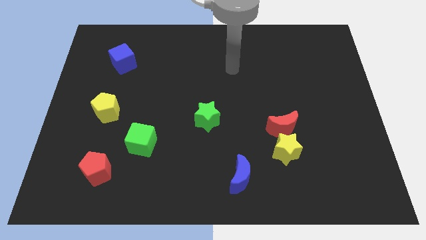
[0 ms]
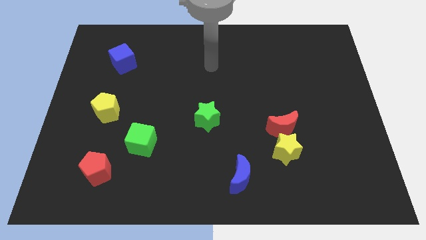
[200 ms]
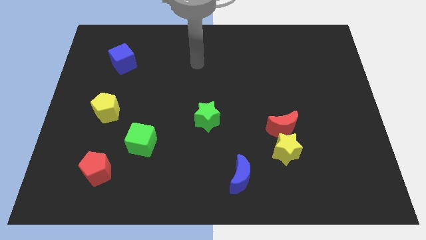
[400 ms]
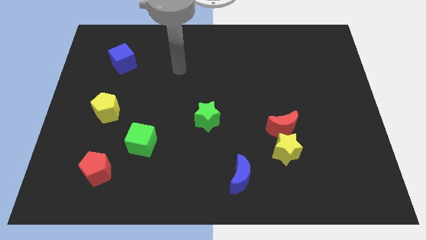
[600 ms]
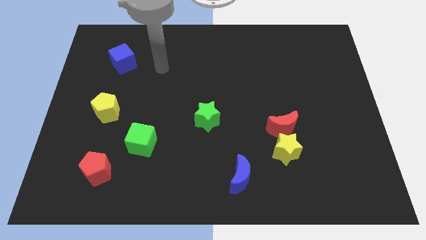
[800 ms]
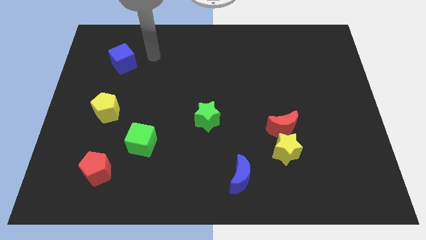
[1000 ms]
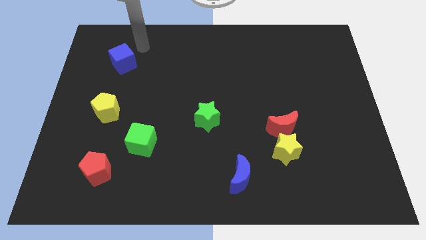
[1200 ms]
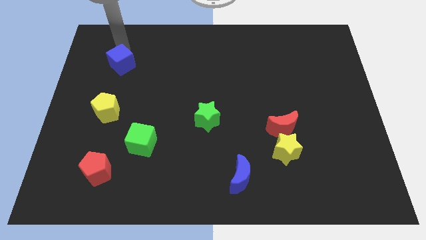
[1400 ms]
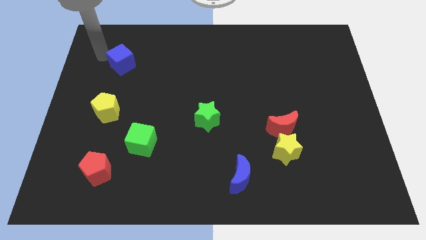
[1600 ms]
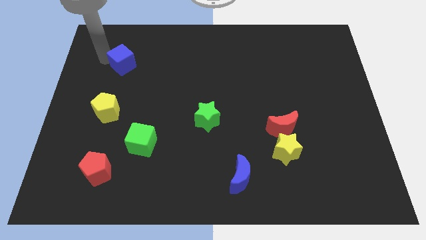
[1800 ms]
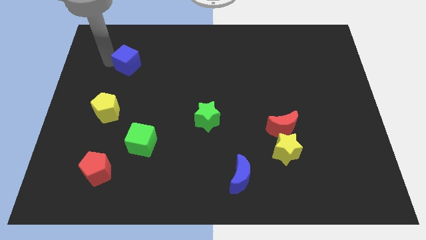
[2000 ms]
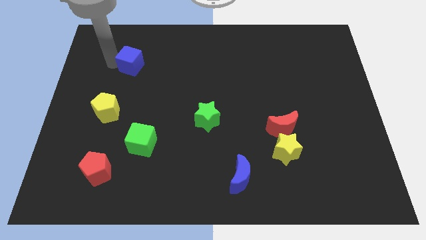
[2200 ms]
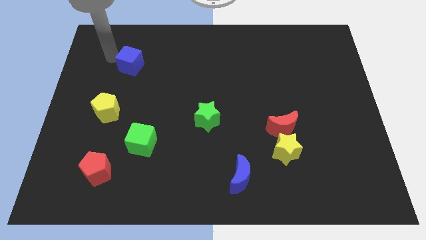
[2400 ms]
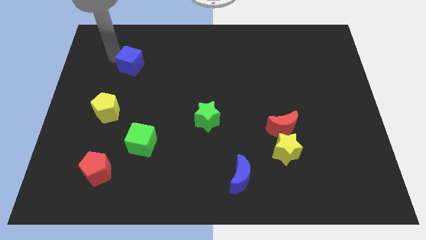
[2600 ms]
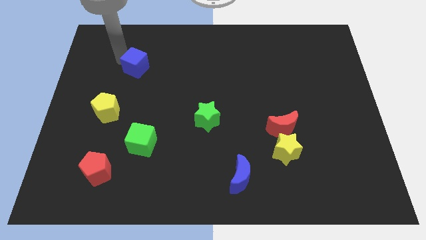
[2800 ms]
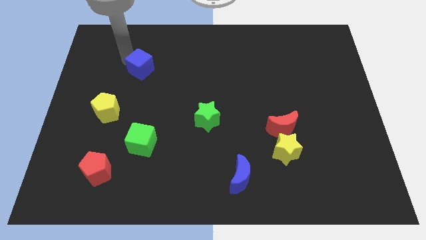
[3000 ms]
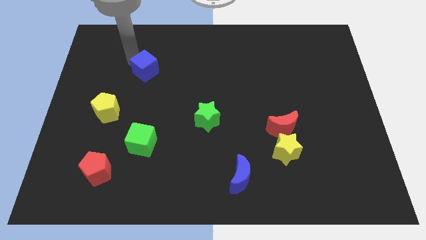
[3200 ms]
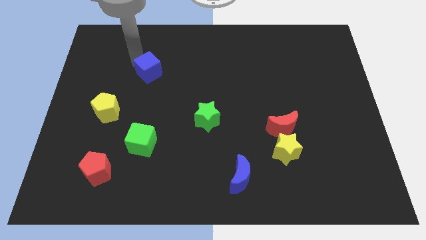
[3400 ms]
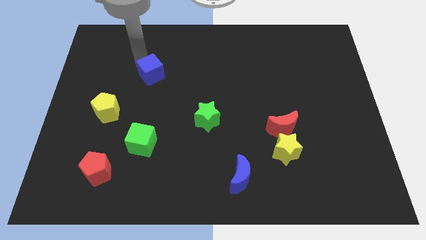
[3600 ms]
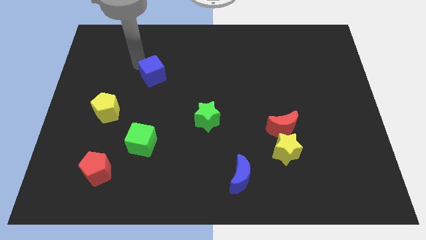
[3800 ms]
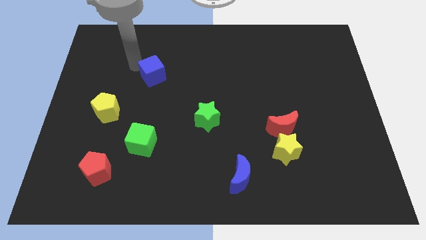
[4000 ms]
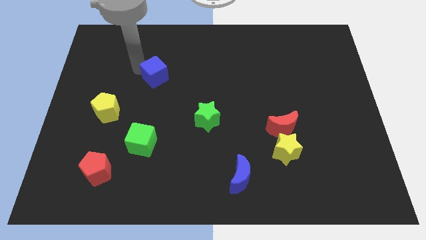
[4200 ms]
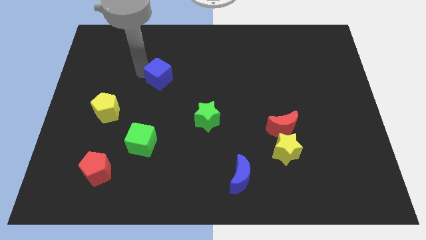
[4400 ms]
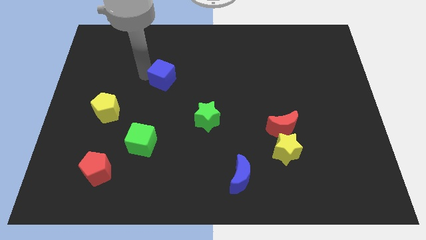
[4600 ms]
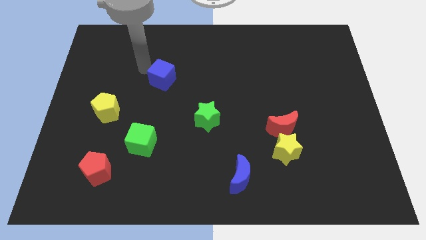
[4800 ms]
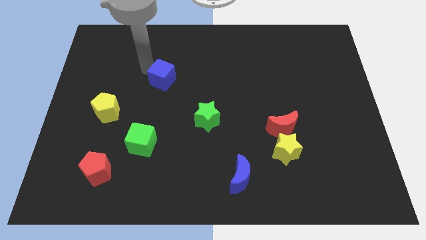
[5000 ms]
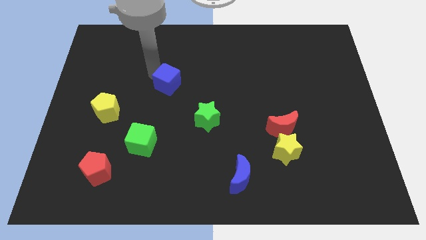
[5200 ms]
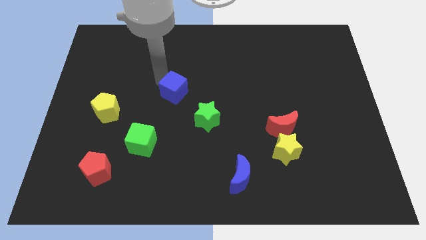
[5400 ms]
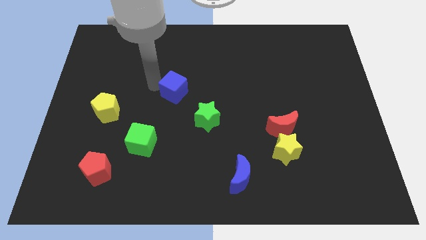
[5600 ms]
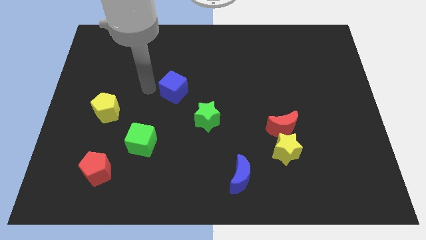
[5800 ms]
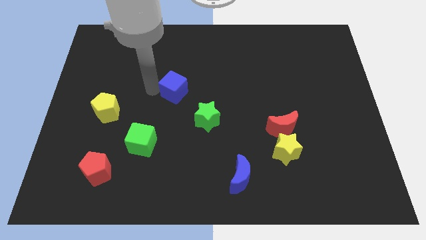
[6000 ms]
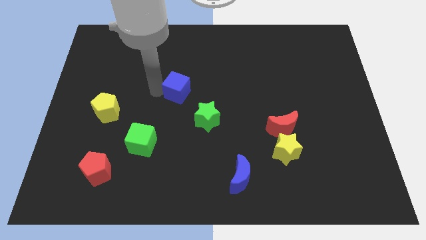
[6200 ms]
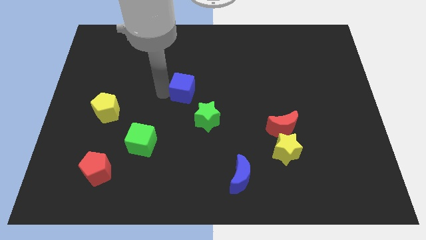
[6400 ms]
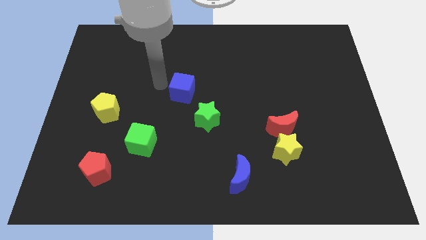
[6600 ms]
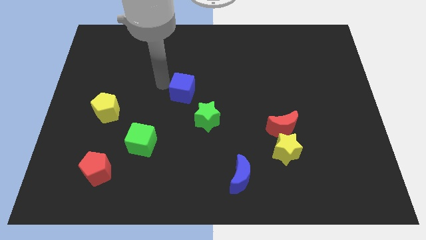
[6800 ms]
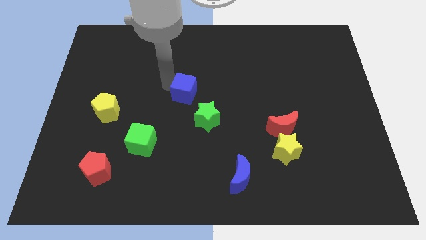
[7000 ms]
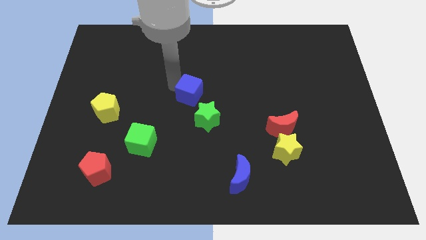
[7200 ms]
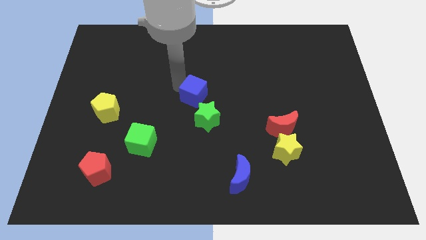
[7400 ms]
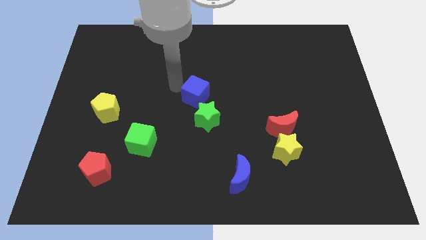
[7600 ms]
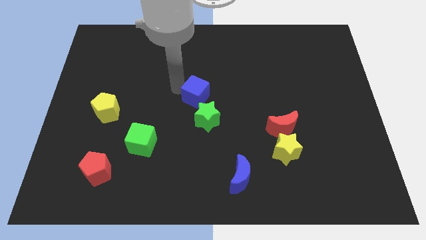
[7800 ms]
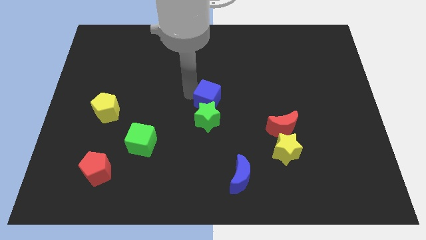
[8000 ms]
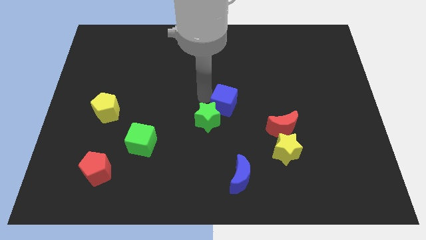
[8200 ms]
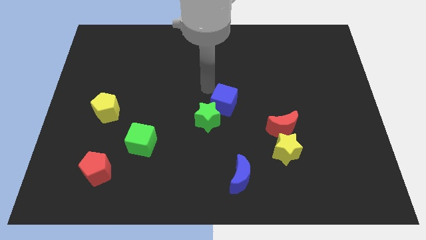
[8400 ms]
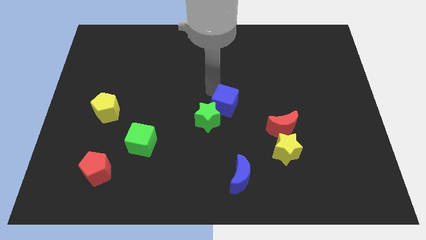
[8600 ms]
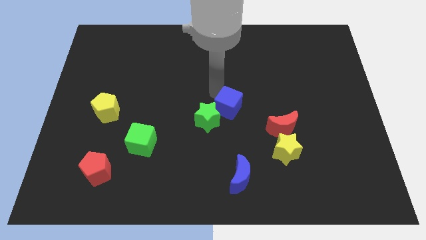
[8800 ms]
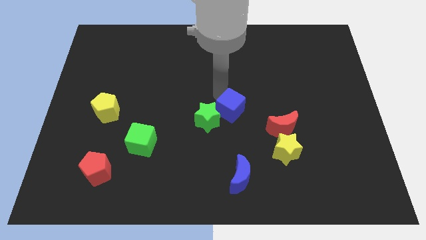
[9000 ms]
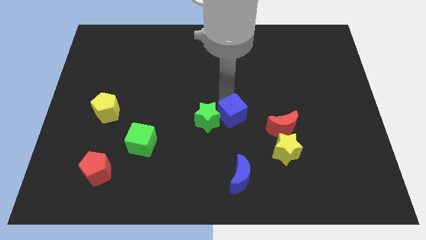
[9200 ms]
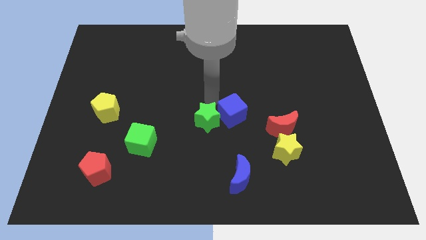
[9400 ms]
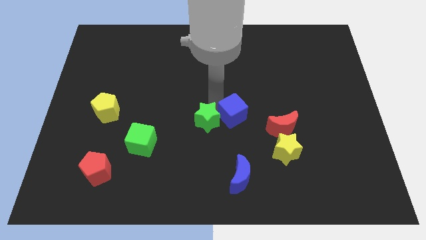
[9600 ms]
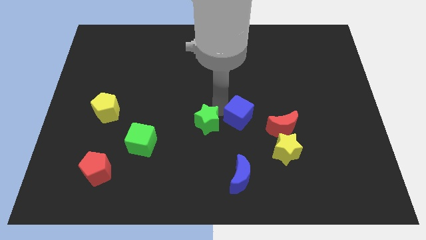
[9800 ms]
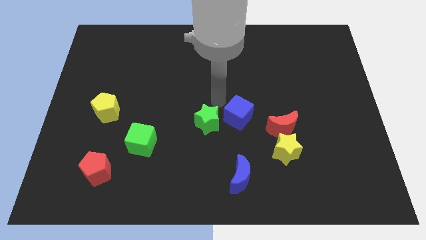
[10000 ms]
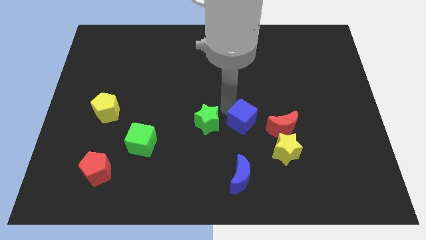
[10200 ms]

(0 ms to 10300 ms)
put the blue cube to the top left side of the yellow star

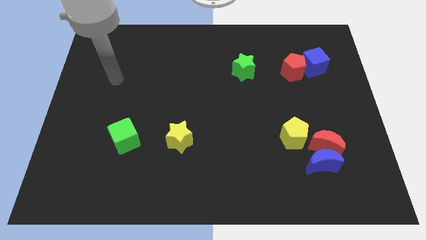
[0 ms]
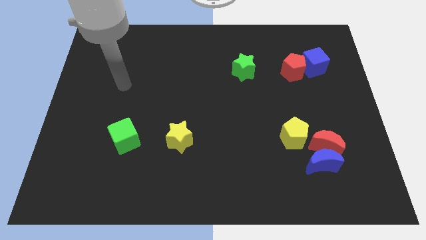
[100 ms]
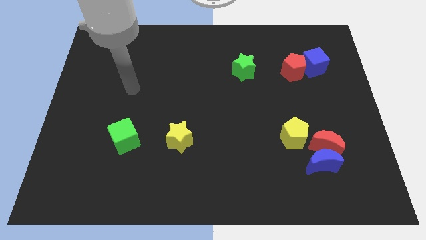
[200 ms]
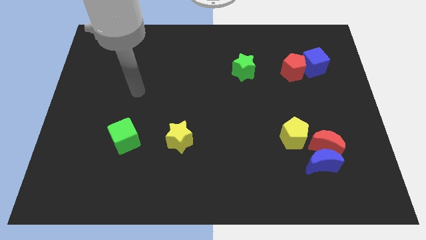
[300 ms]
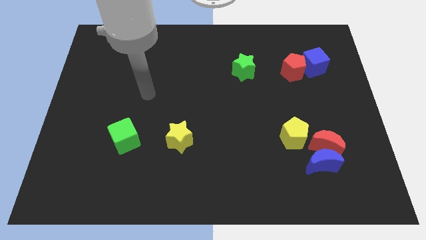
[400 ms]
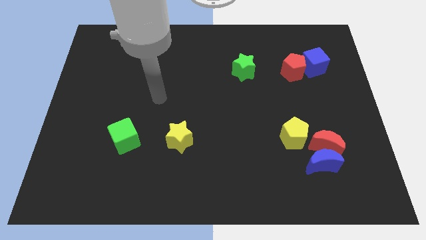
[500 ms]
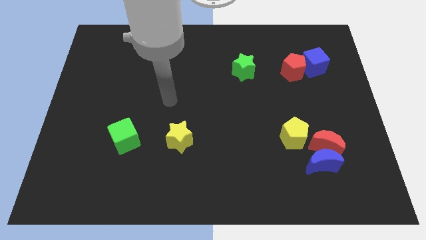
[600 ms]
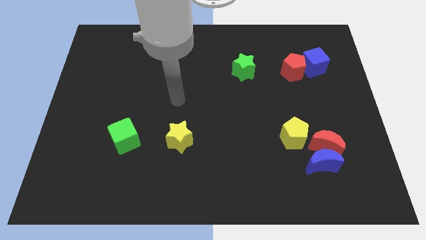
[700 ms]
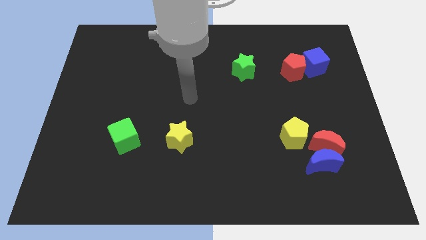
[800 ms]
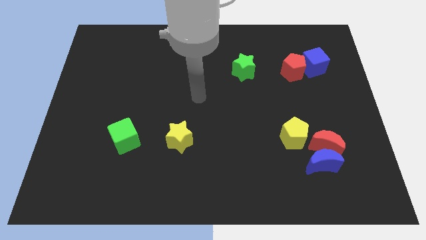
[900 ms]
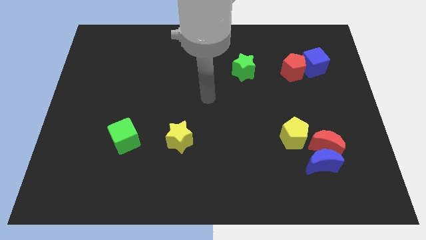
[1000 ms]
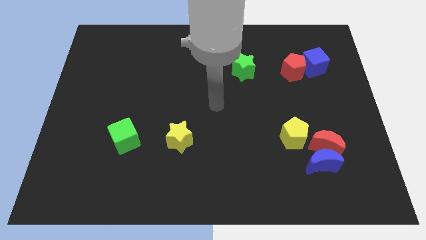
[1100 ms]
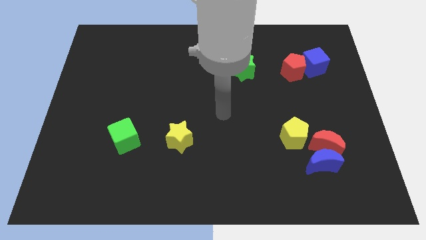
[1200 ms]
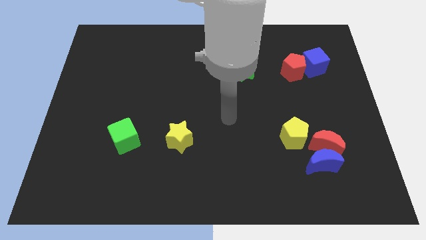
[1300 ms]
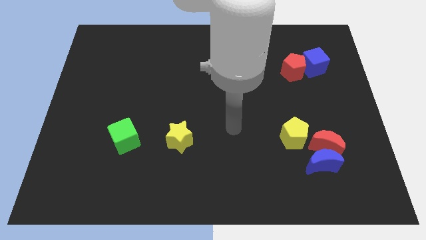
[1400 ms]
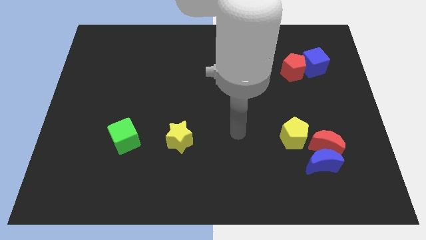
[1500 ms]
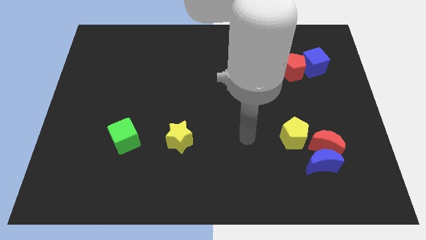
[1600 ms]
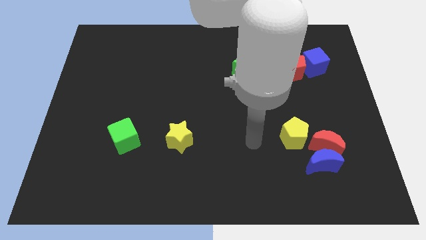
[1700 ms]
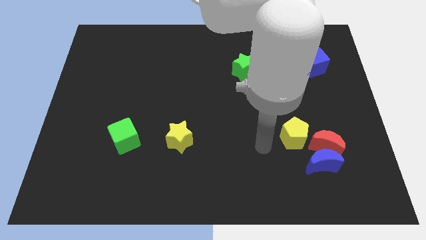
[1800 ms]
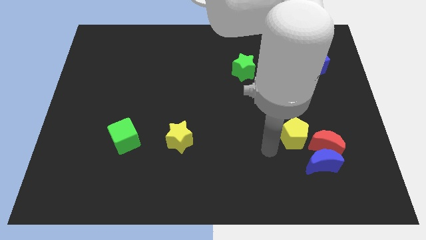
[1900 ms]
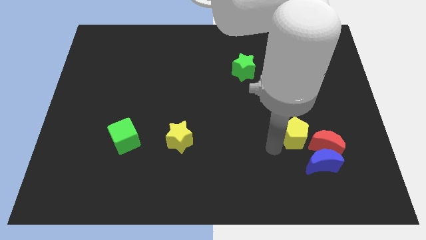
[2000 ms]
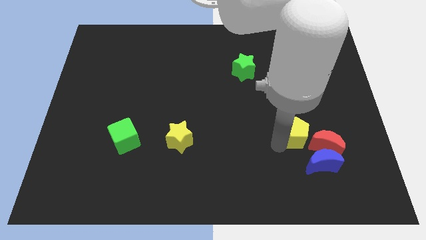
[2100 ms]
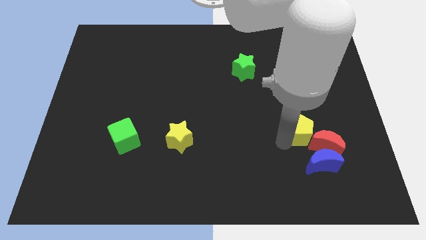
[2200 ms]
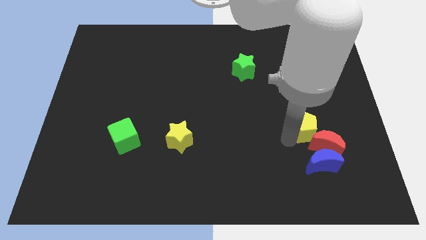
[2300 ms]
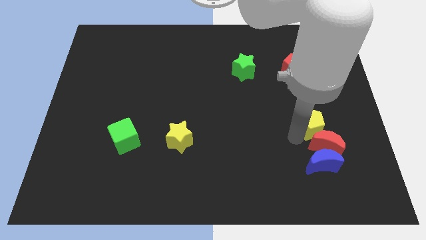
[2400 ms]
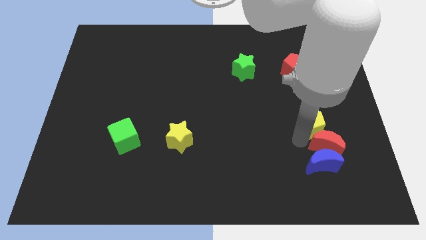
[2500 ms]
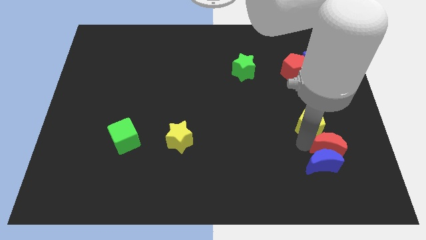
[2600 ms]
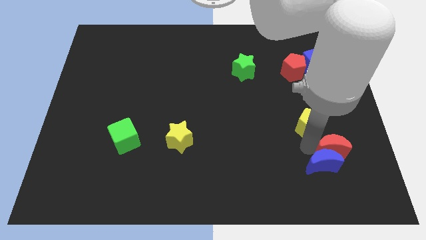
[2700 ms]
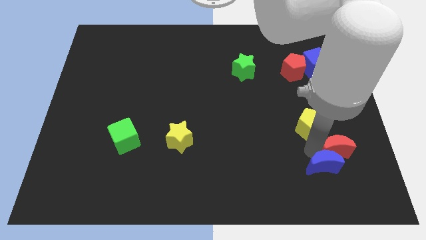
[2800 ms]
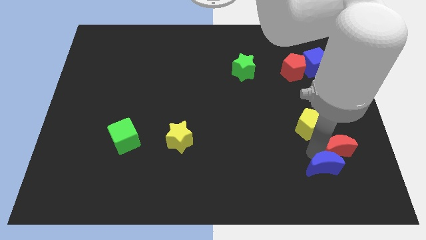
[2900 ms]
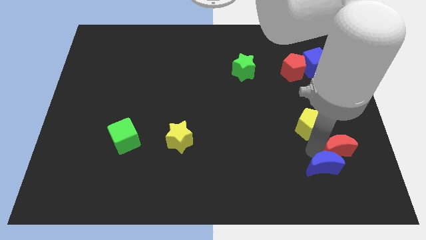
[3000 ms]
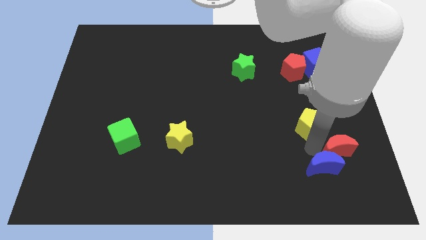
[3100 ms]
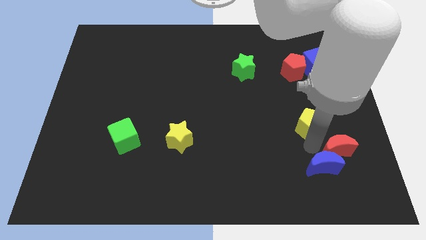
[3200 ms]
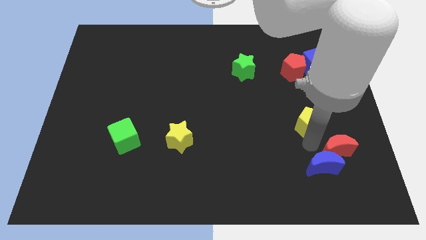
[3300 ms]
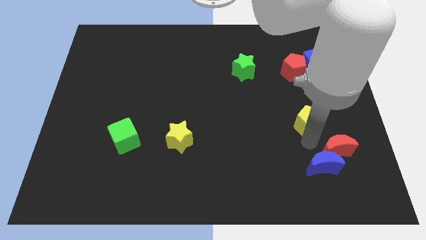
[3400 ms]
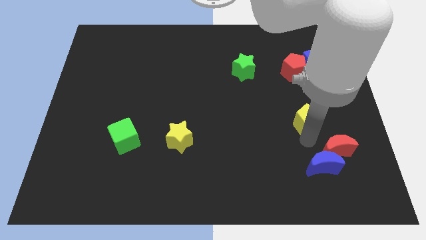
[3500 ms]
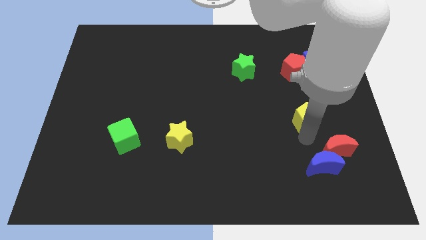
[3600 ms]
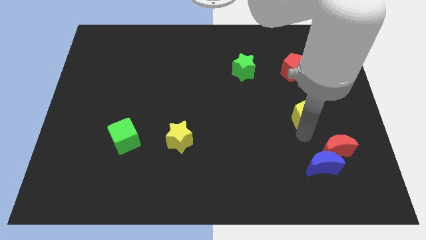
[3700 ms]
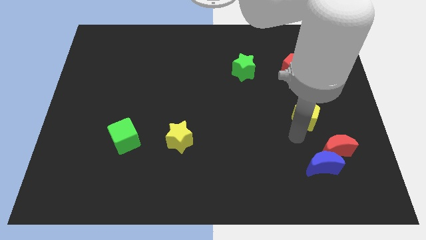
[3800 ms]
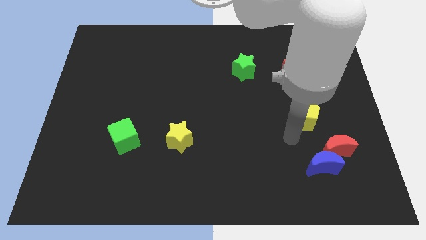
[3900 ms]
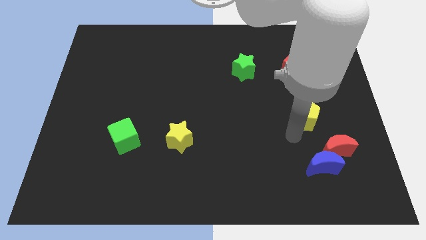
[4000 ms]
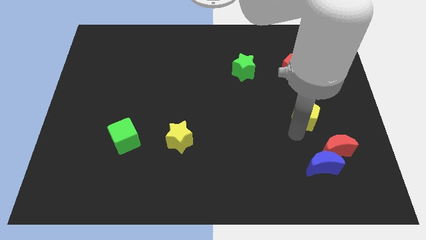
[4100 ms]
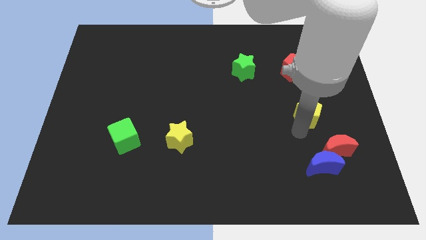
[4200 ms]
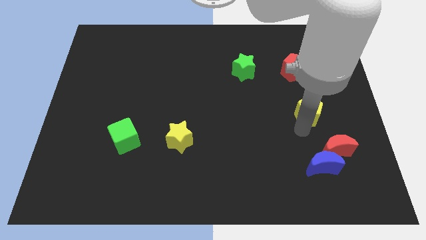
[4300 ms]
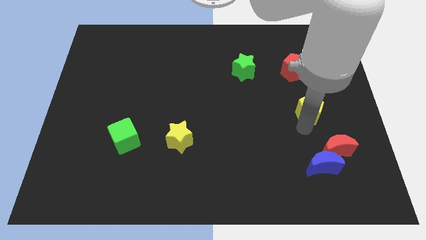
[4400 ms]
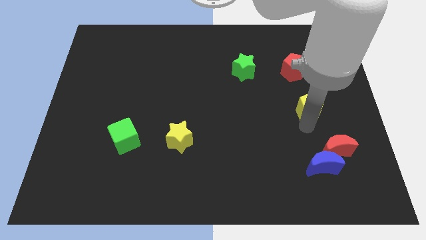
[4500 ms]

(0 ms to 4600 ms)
push the yellow pentagon to the bottom side of the blue cube
